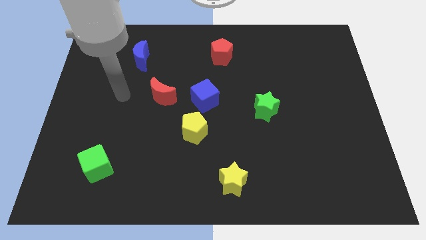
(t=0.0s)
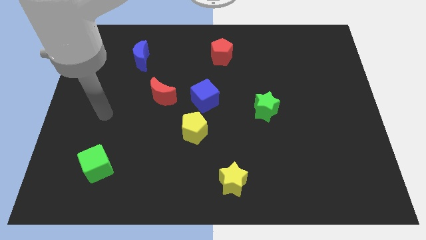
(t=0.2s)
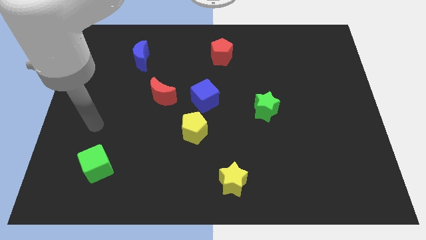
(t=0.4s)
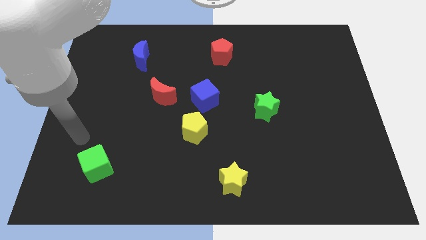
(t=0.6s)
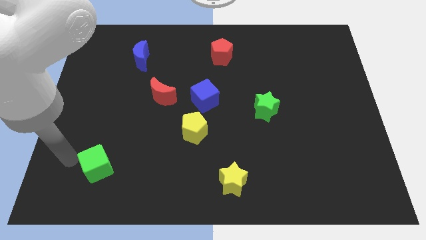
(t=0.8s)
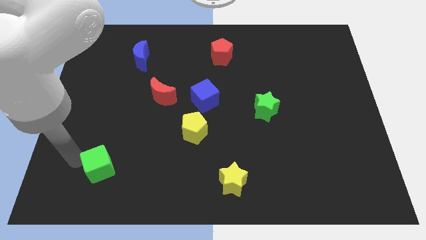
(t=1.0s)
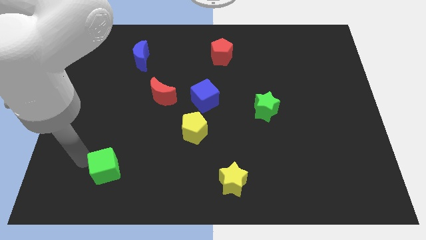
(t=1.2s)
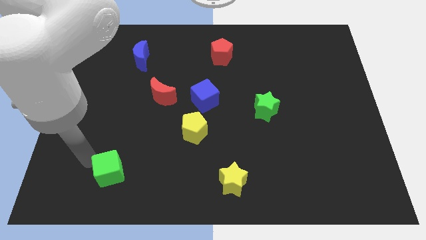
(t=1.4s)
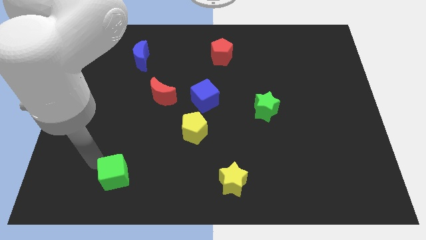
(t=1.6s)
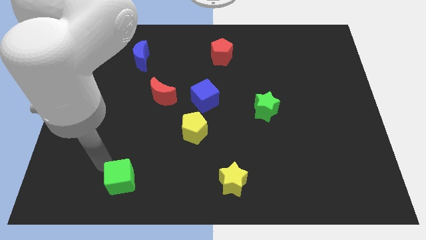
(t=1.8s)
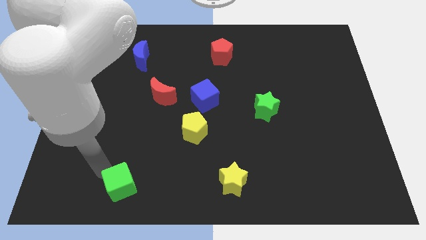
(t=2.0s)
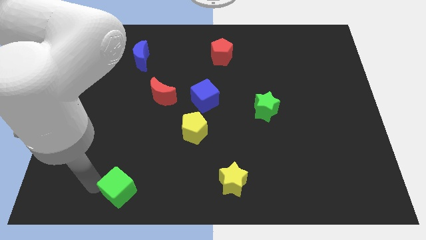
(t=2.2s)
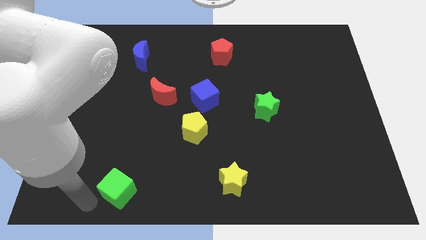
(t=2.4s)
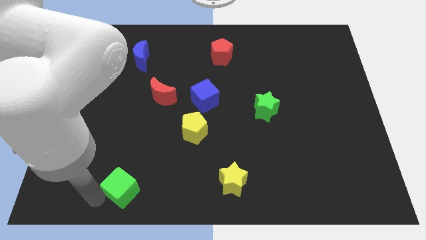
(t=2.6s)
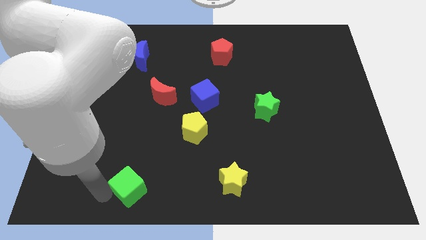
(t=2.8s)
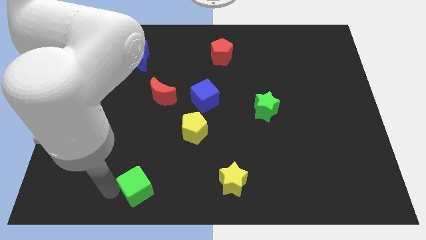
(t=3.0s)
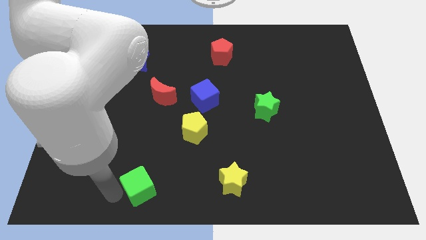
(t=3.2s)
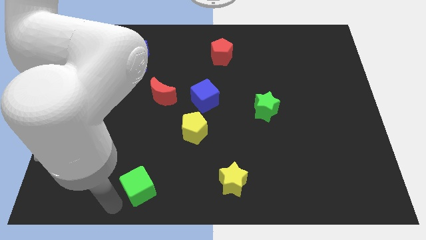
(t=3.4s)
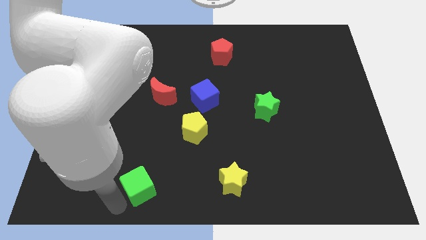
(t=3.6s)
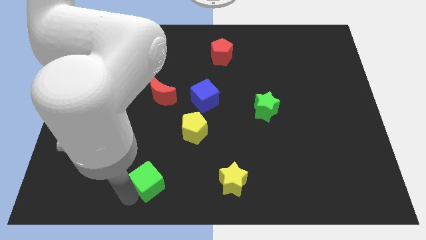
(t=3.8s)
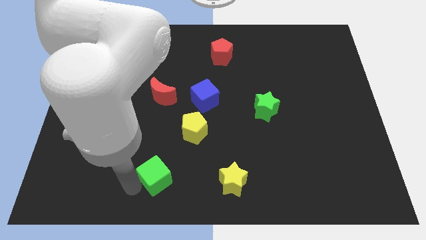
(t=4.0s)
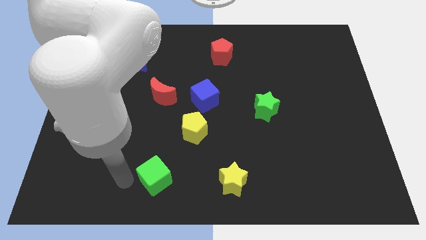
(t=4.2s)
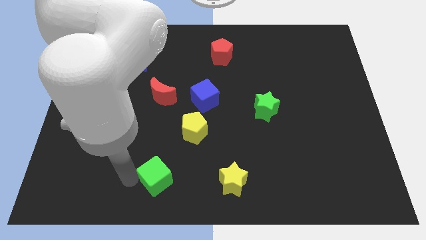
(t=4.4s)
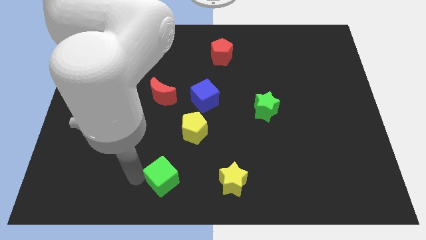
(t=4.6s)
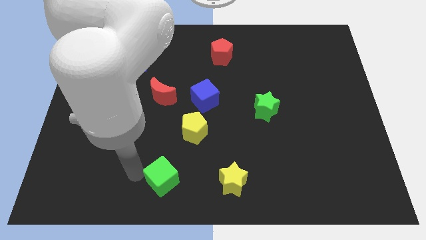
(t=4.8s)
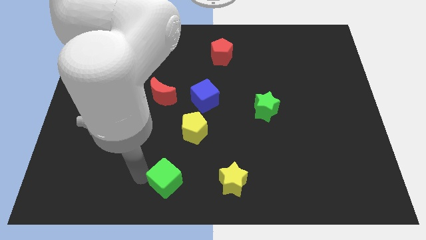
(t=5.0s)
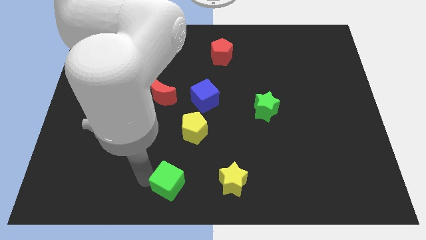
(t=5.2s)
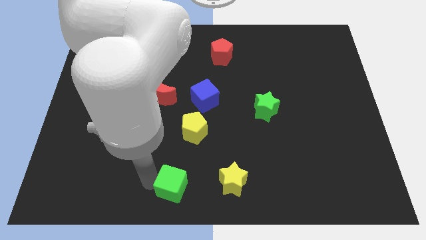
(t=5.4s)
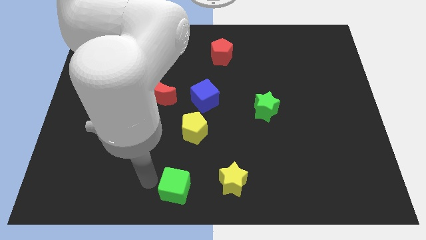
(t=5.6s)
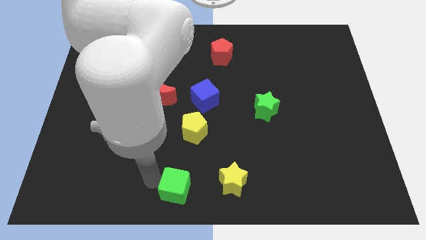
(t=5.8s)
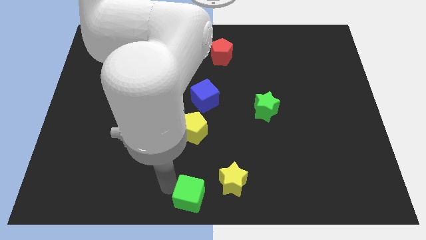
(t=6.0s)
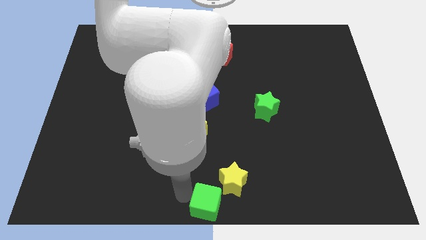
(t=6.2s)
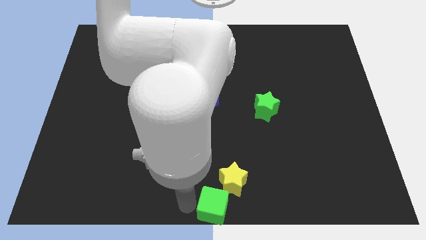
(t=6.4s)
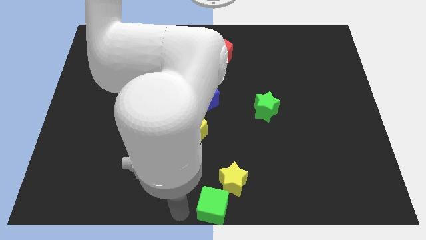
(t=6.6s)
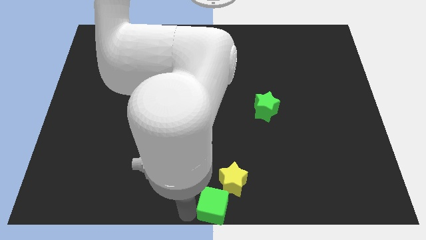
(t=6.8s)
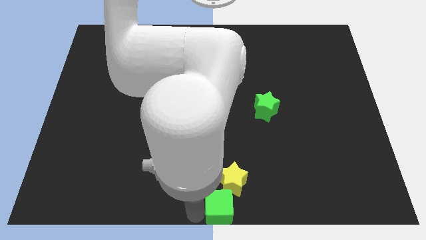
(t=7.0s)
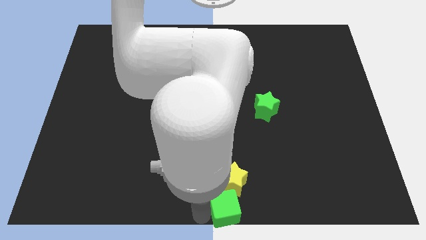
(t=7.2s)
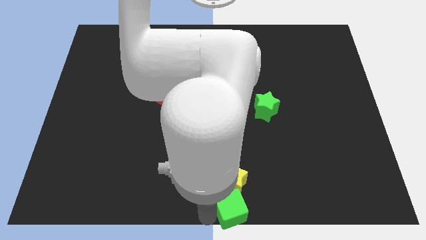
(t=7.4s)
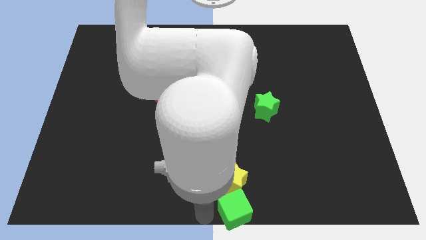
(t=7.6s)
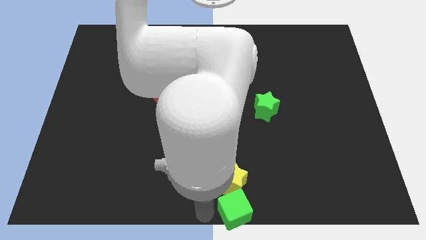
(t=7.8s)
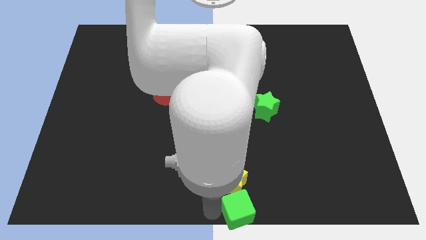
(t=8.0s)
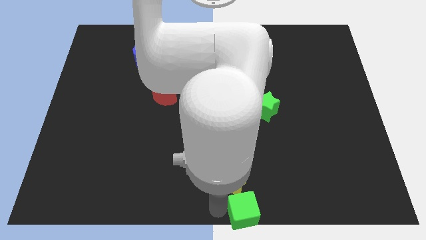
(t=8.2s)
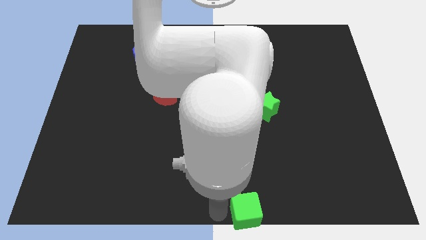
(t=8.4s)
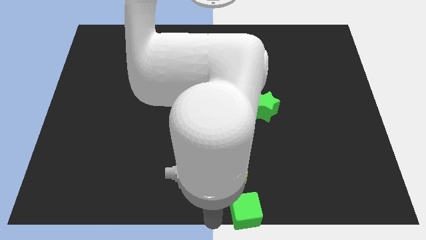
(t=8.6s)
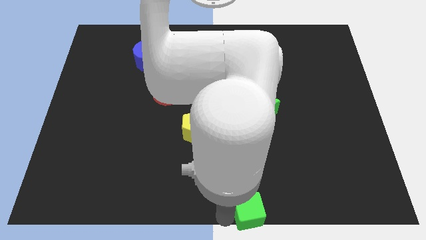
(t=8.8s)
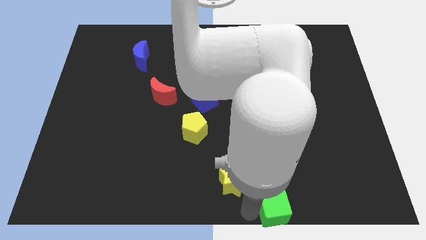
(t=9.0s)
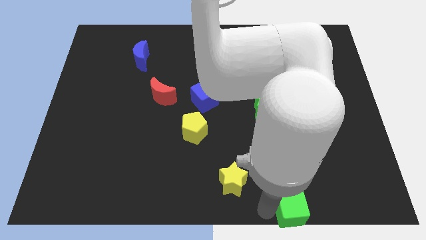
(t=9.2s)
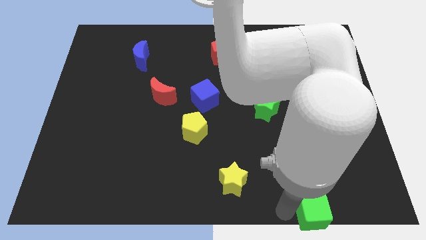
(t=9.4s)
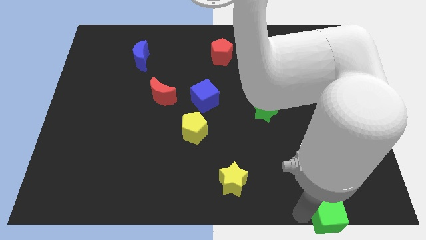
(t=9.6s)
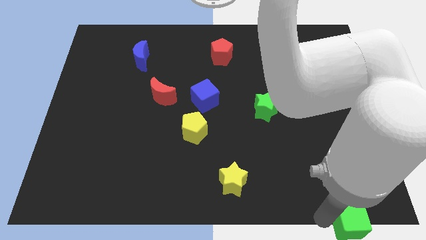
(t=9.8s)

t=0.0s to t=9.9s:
move the green cube to the bottom right

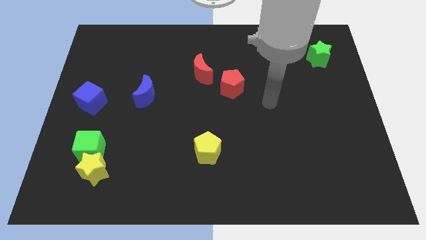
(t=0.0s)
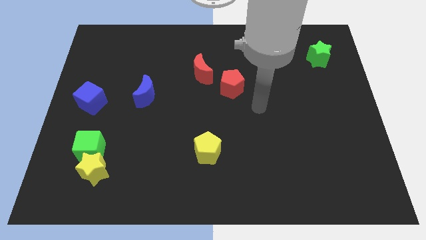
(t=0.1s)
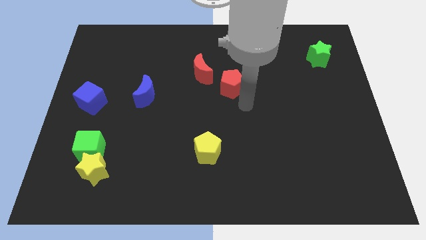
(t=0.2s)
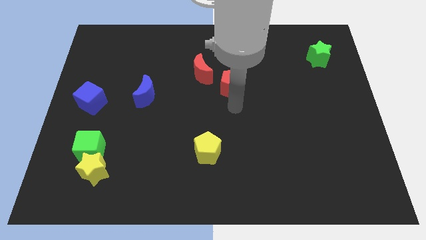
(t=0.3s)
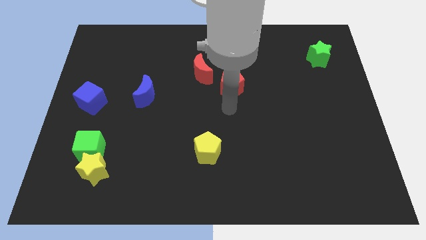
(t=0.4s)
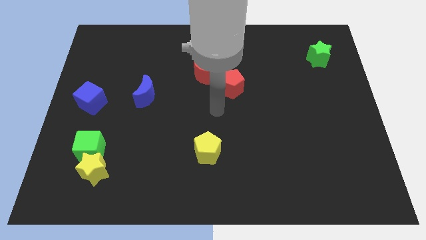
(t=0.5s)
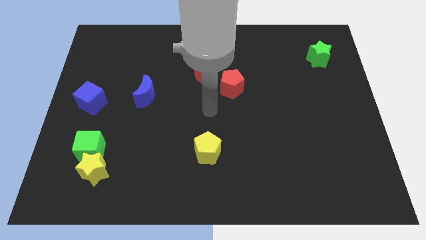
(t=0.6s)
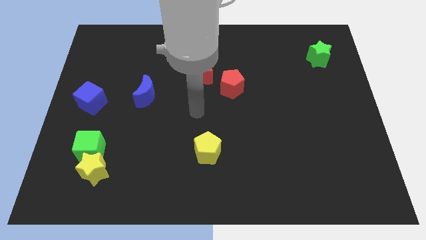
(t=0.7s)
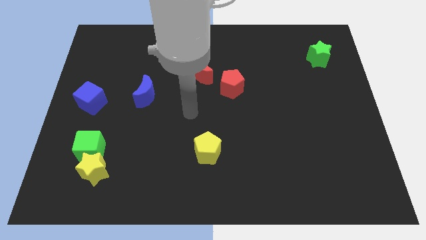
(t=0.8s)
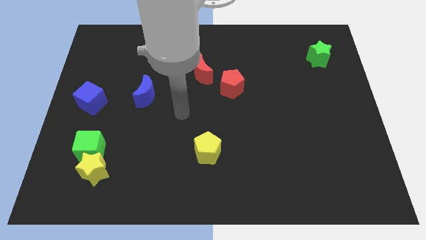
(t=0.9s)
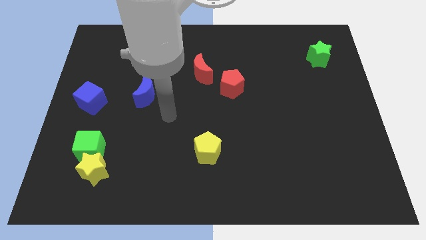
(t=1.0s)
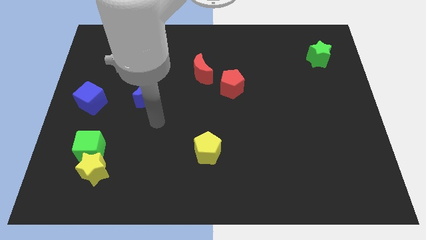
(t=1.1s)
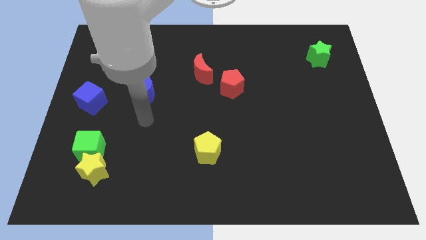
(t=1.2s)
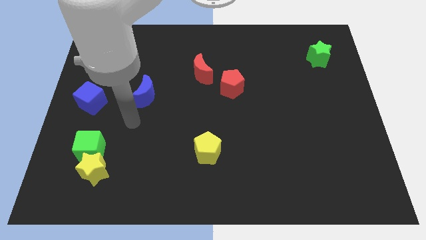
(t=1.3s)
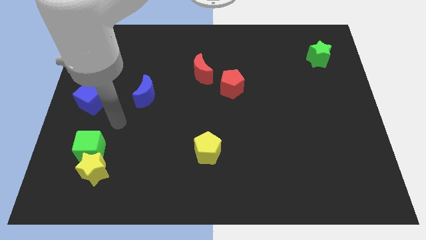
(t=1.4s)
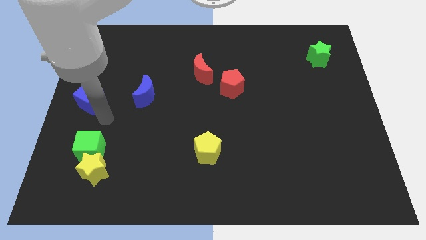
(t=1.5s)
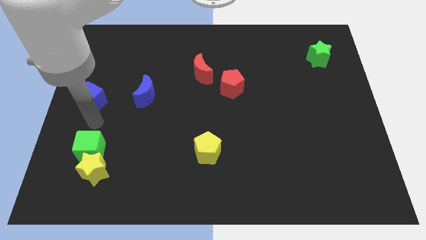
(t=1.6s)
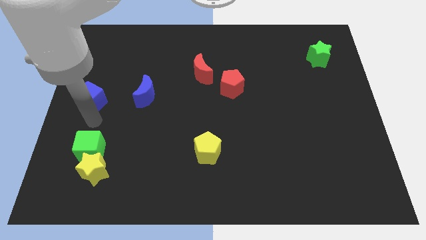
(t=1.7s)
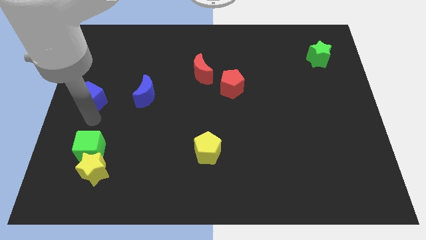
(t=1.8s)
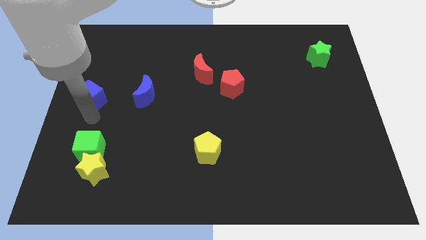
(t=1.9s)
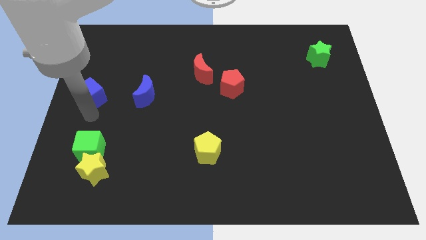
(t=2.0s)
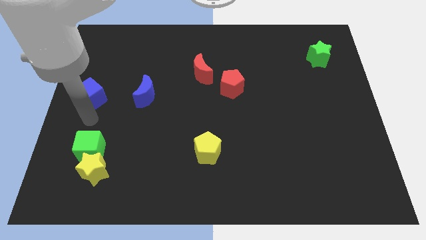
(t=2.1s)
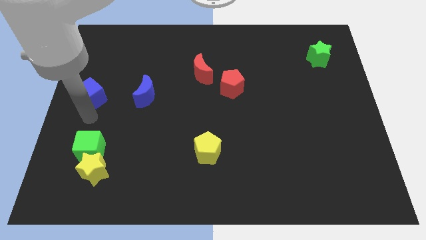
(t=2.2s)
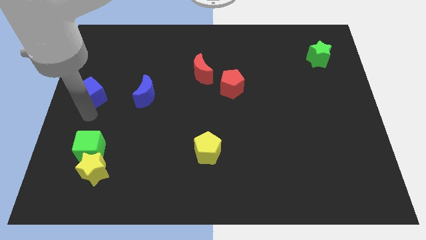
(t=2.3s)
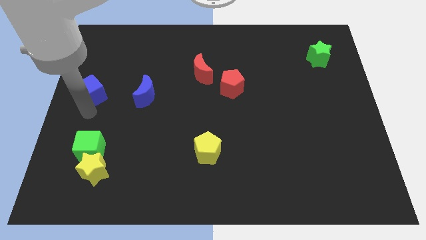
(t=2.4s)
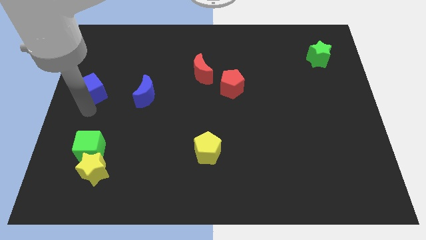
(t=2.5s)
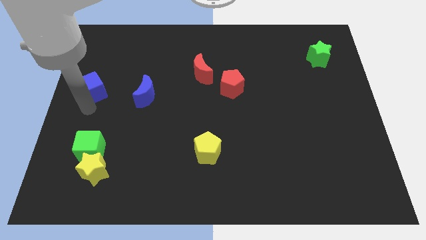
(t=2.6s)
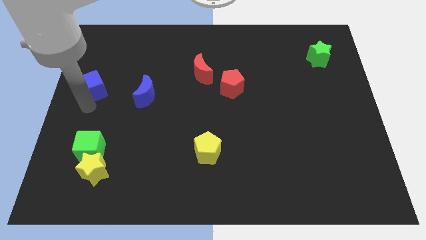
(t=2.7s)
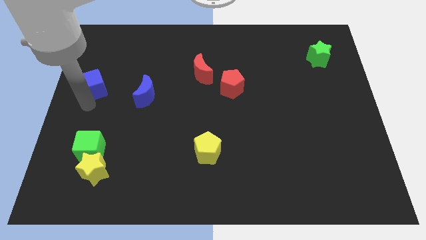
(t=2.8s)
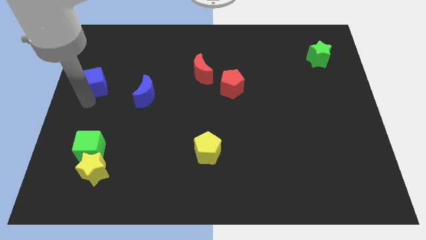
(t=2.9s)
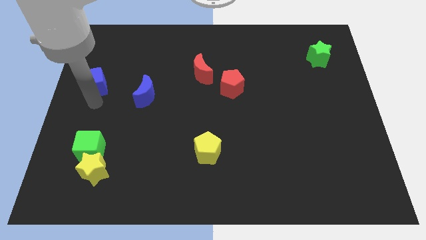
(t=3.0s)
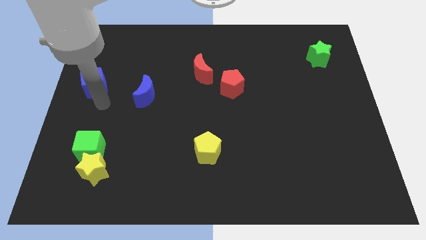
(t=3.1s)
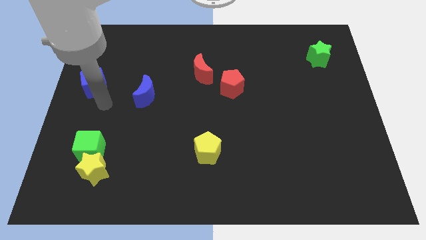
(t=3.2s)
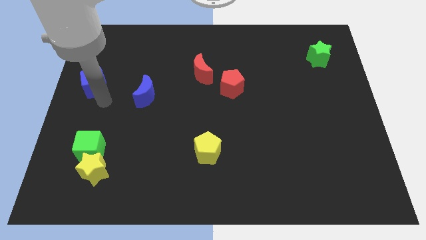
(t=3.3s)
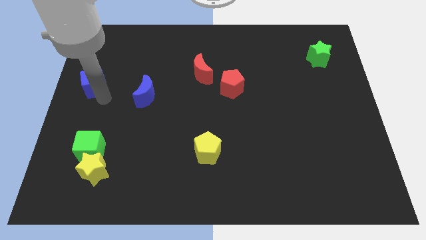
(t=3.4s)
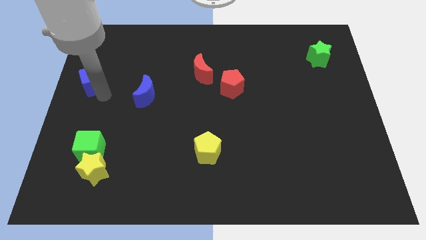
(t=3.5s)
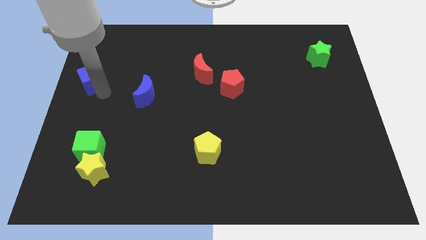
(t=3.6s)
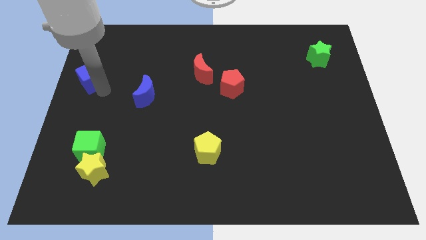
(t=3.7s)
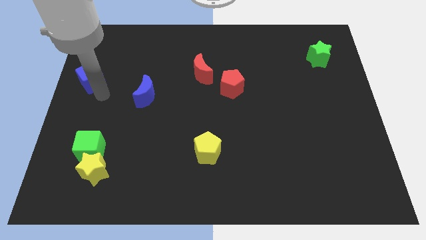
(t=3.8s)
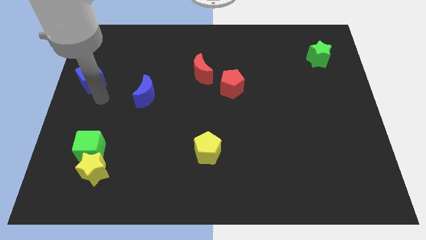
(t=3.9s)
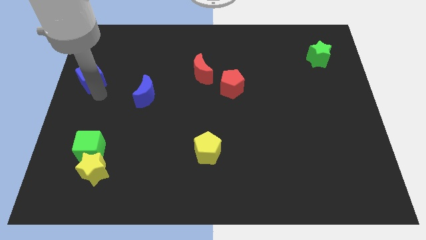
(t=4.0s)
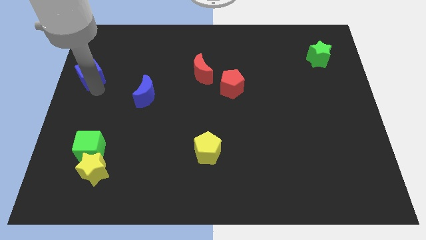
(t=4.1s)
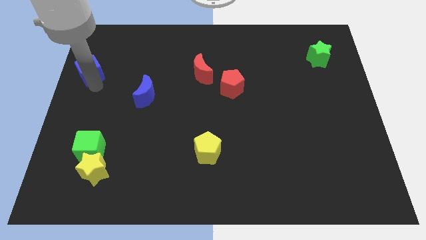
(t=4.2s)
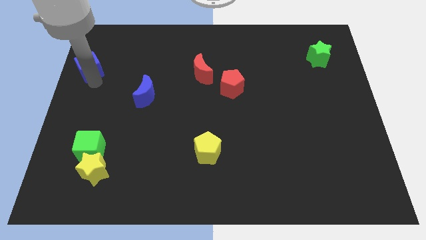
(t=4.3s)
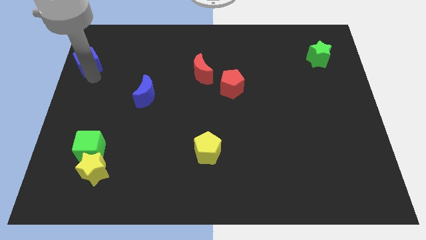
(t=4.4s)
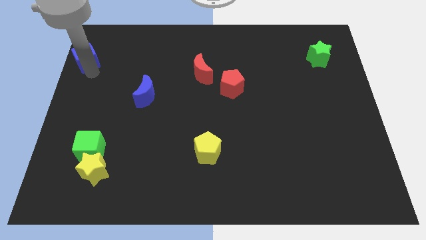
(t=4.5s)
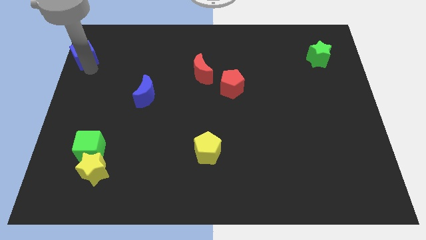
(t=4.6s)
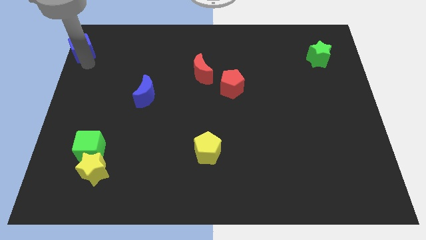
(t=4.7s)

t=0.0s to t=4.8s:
push the blue cube to the top left of the board
